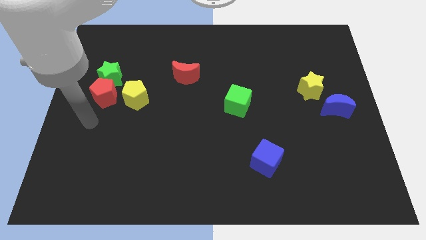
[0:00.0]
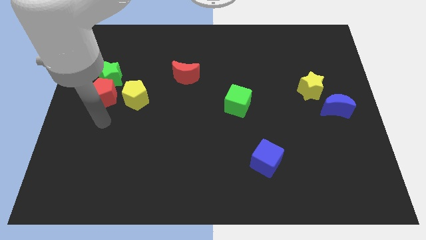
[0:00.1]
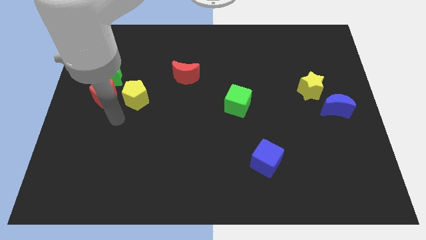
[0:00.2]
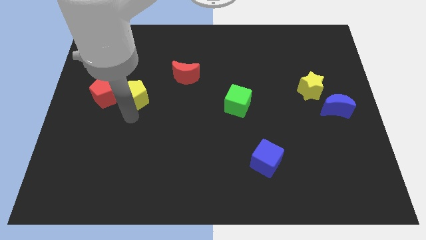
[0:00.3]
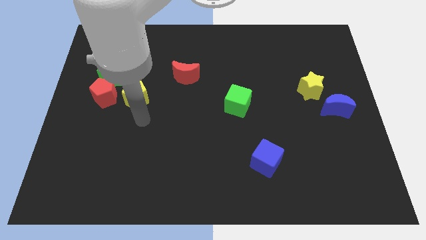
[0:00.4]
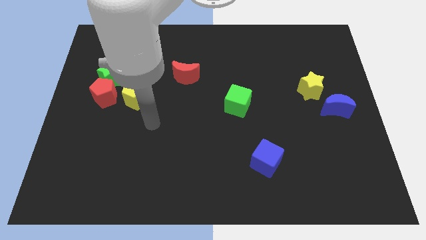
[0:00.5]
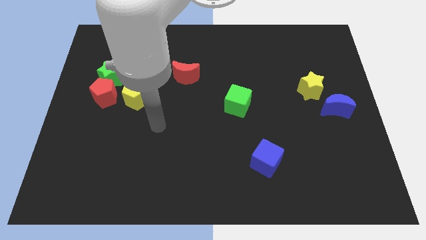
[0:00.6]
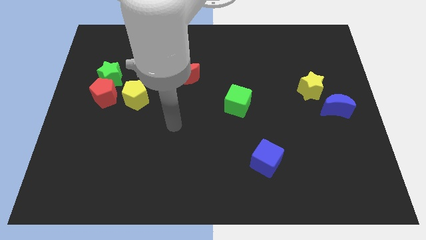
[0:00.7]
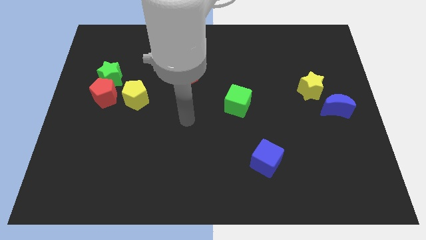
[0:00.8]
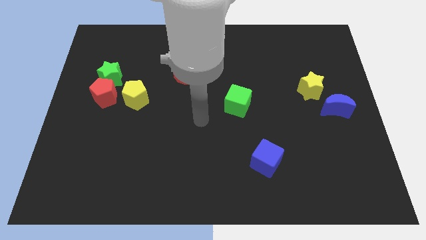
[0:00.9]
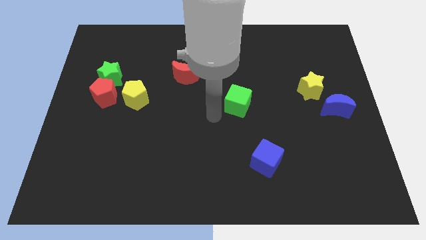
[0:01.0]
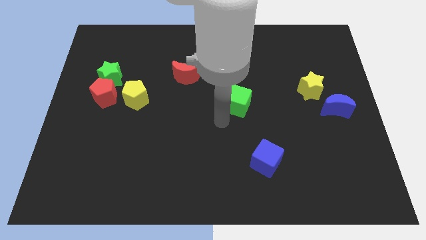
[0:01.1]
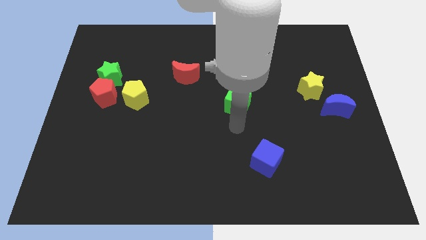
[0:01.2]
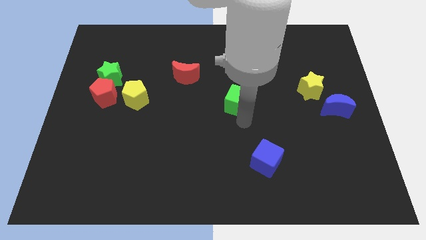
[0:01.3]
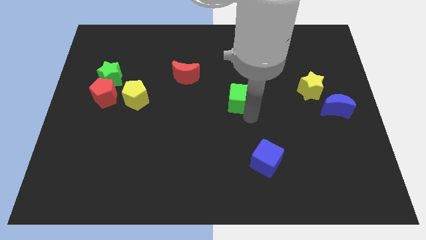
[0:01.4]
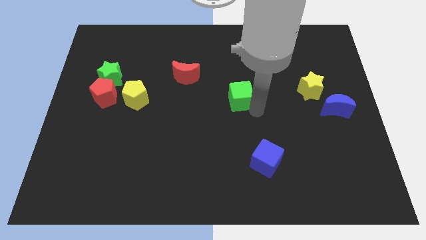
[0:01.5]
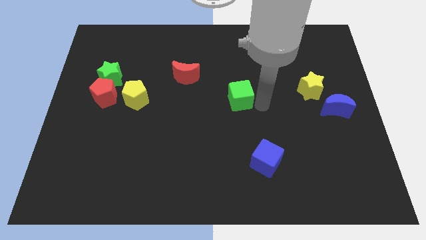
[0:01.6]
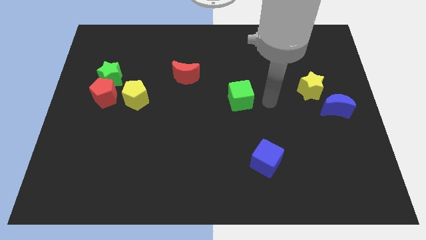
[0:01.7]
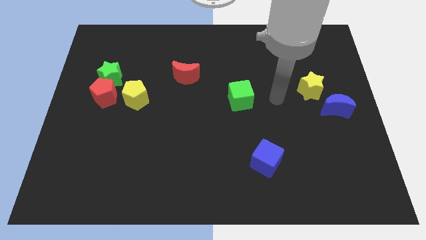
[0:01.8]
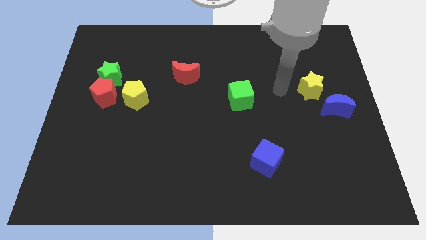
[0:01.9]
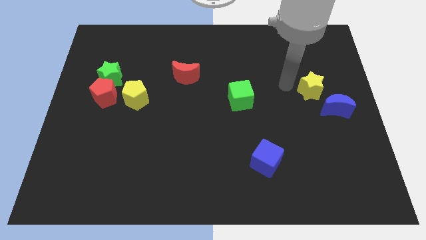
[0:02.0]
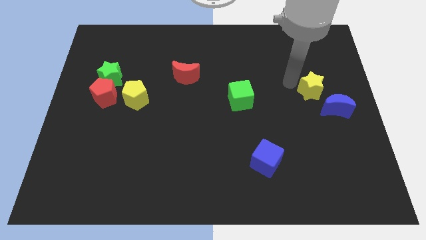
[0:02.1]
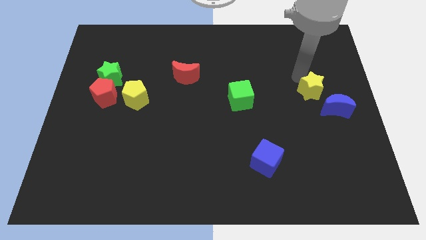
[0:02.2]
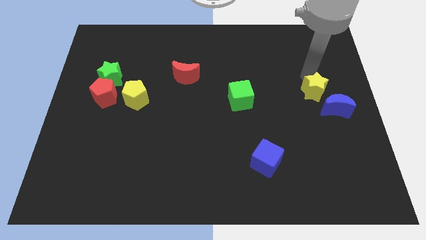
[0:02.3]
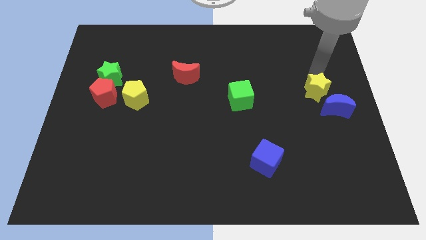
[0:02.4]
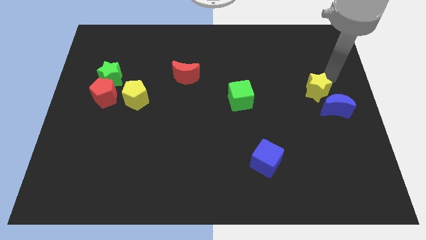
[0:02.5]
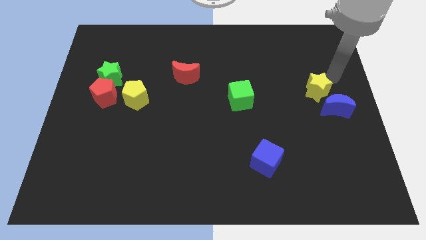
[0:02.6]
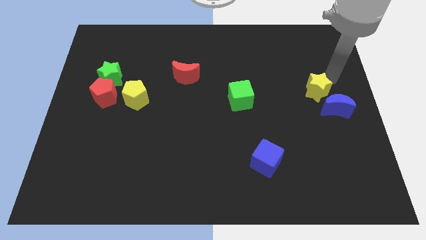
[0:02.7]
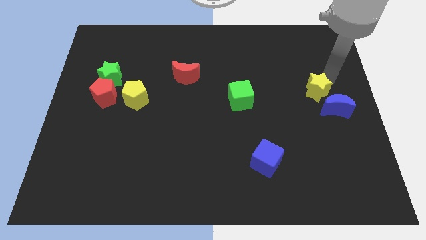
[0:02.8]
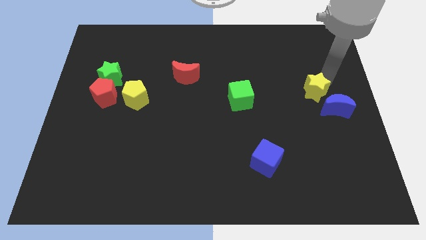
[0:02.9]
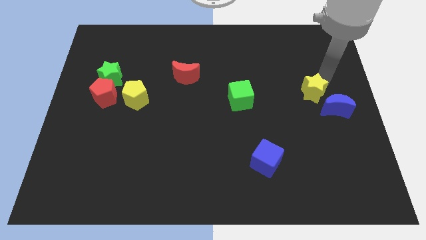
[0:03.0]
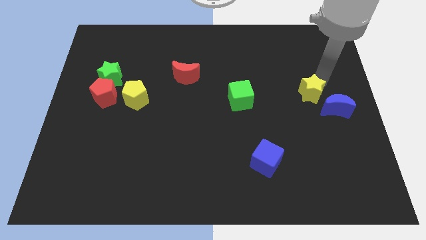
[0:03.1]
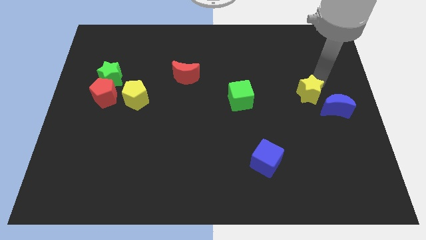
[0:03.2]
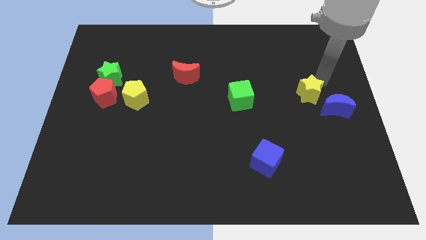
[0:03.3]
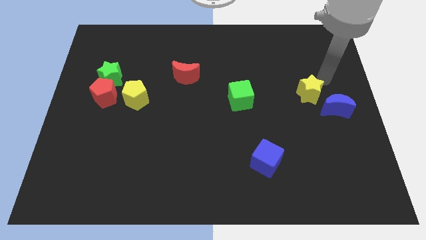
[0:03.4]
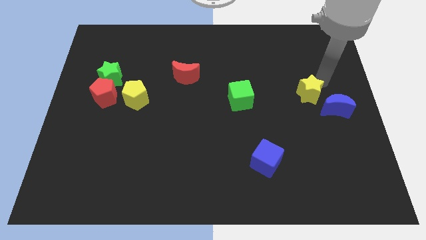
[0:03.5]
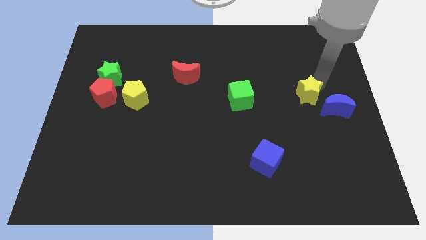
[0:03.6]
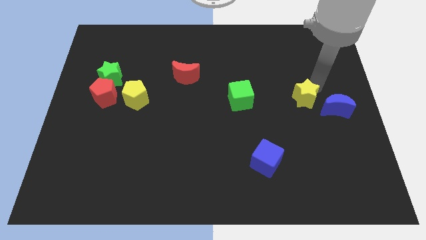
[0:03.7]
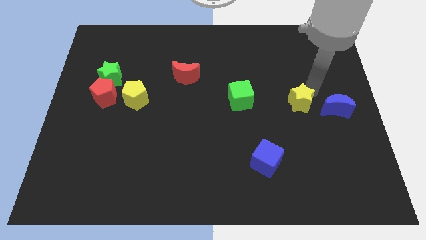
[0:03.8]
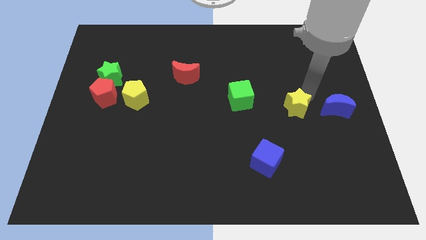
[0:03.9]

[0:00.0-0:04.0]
push the yellow star a little downwards and left

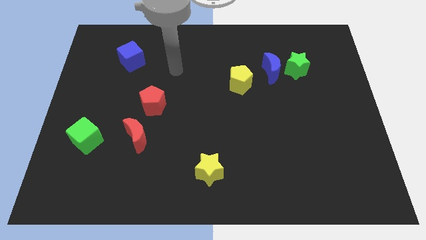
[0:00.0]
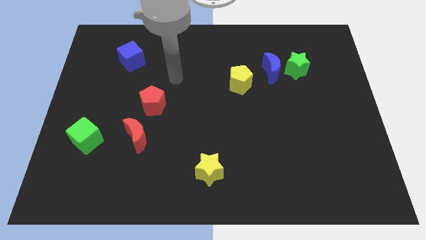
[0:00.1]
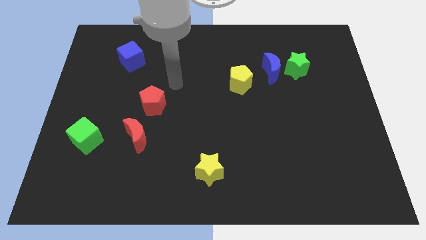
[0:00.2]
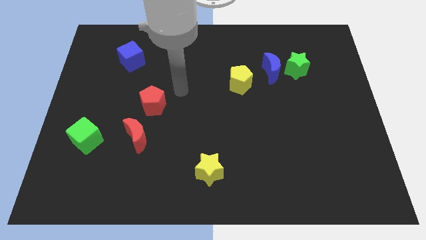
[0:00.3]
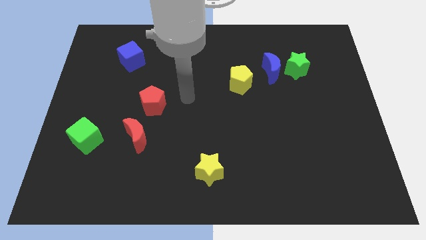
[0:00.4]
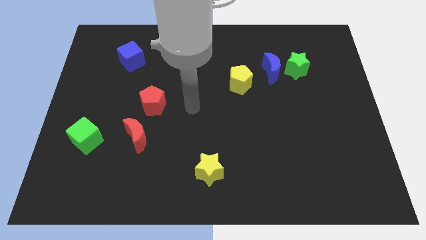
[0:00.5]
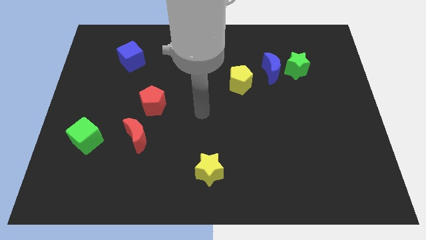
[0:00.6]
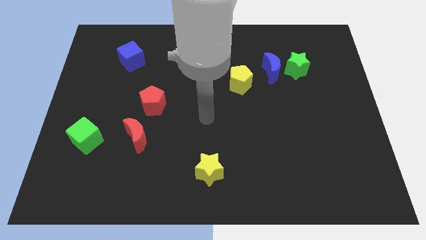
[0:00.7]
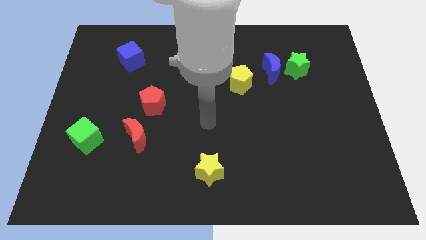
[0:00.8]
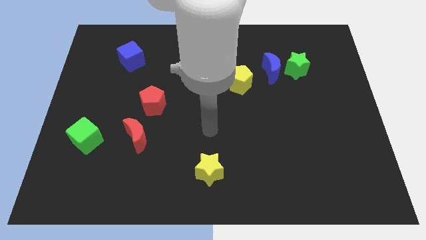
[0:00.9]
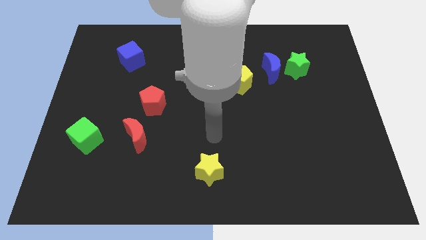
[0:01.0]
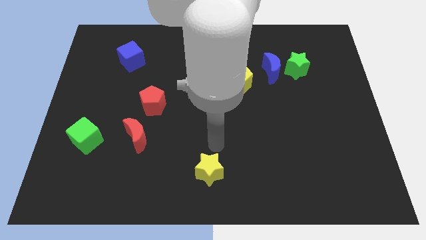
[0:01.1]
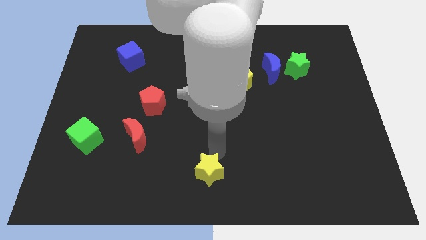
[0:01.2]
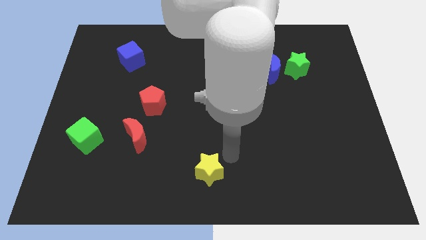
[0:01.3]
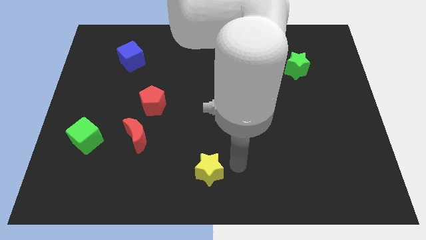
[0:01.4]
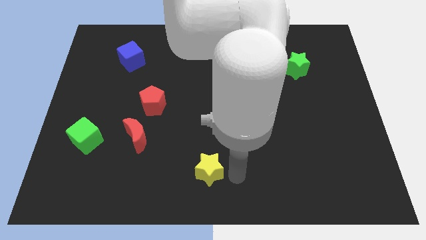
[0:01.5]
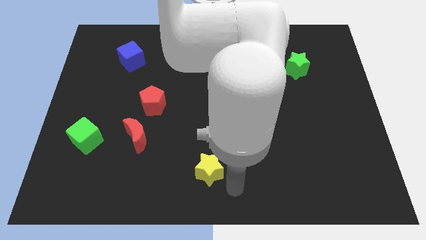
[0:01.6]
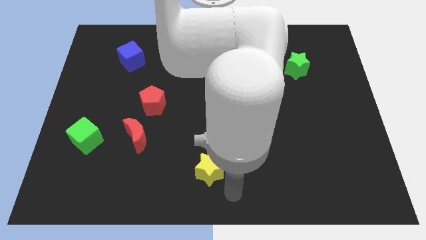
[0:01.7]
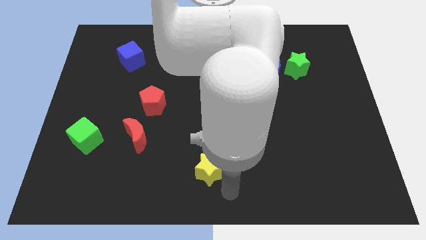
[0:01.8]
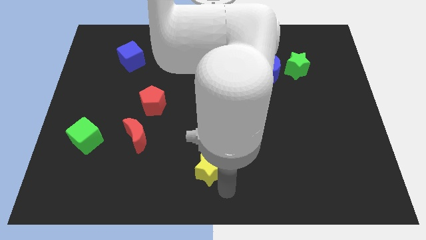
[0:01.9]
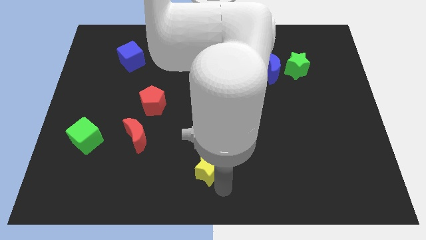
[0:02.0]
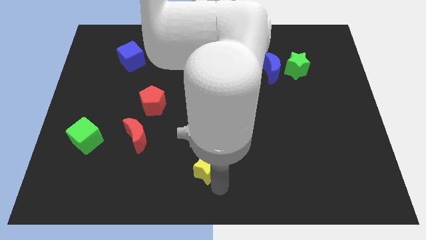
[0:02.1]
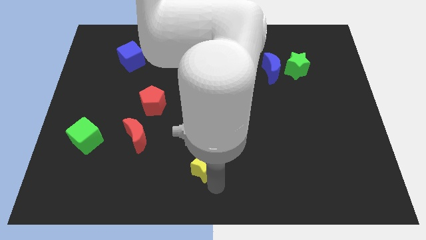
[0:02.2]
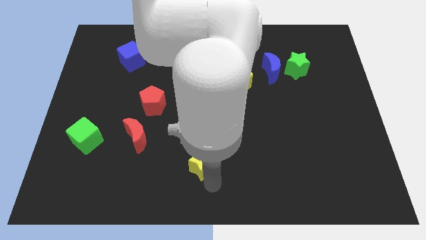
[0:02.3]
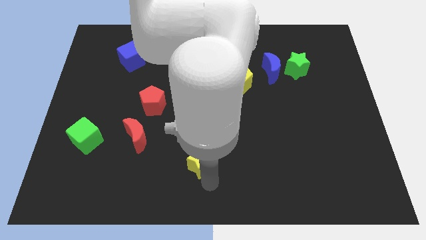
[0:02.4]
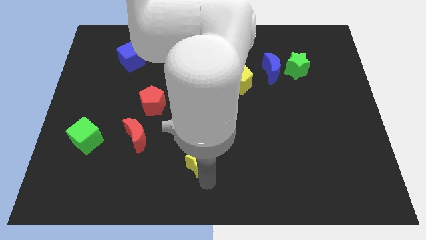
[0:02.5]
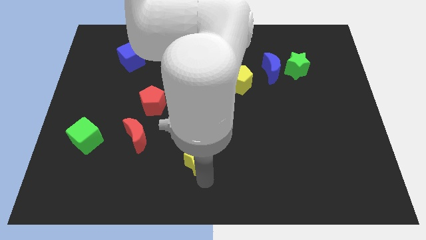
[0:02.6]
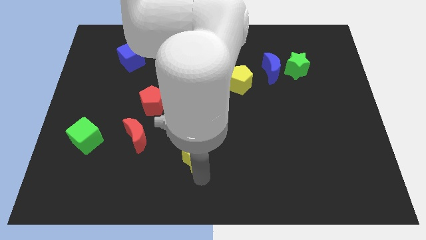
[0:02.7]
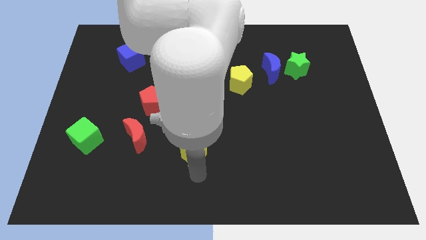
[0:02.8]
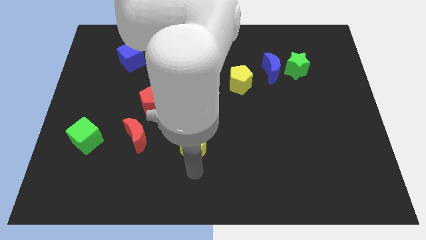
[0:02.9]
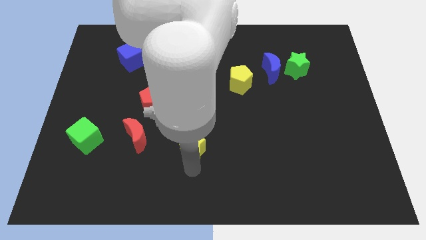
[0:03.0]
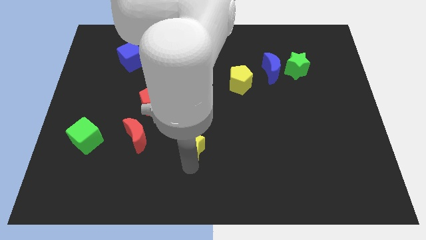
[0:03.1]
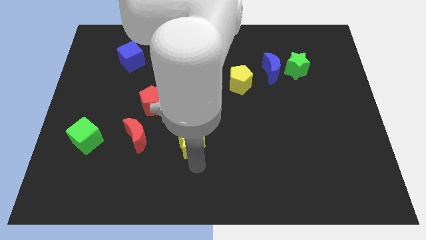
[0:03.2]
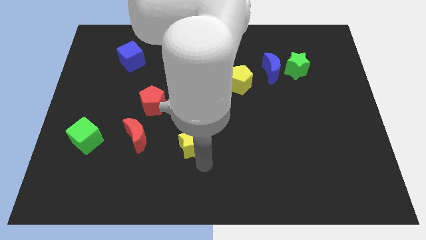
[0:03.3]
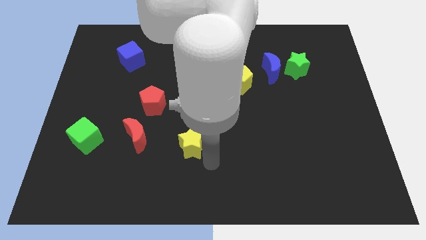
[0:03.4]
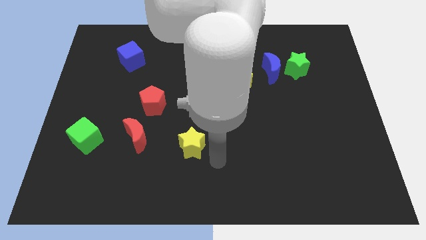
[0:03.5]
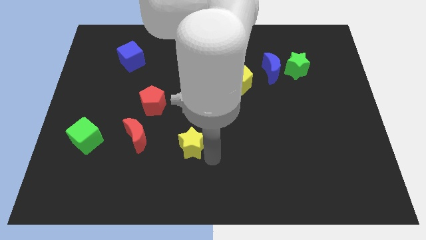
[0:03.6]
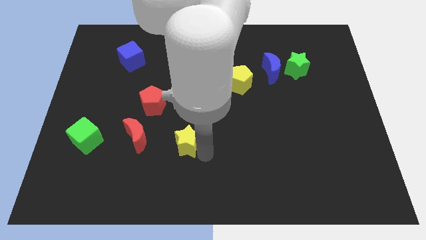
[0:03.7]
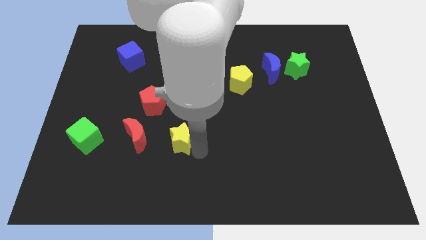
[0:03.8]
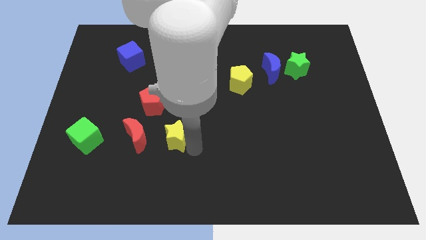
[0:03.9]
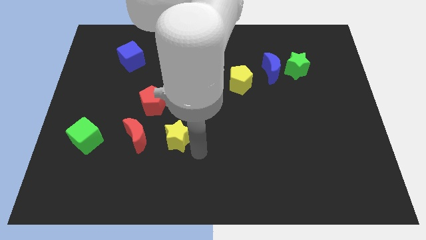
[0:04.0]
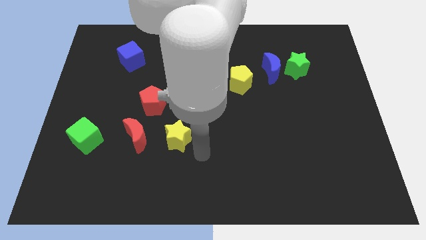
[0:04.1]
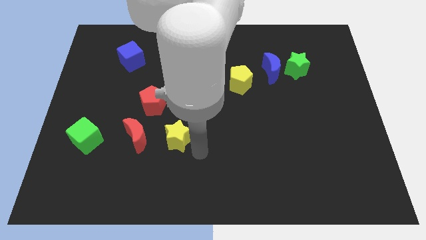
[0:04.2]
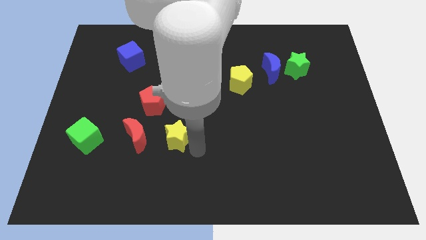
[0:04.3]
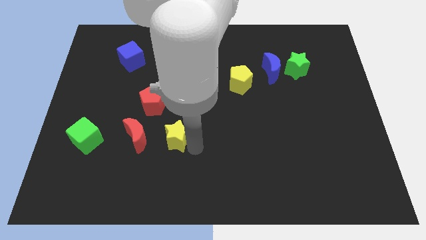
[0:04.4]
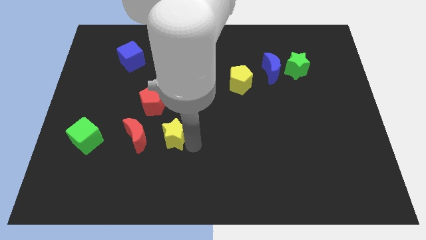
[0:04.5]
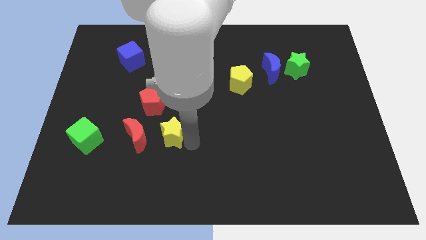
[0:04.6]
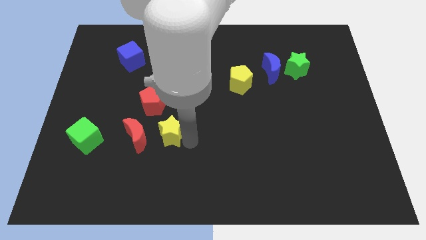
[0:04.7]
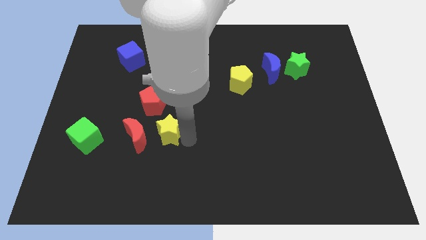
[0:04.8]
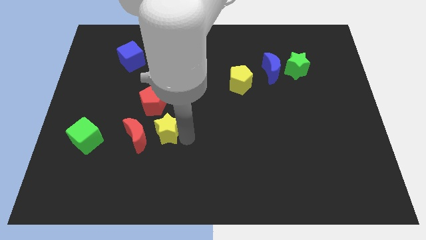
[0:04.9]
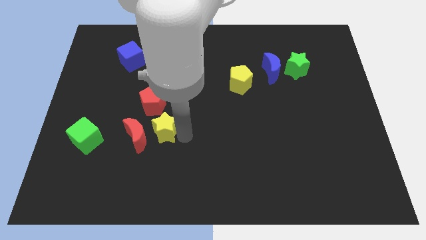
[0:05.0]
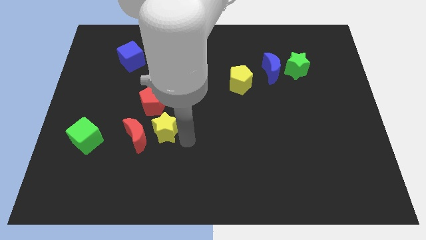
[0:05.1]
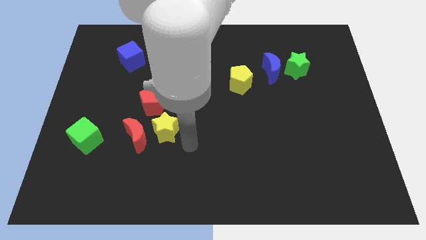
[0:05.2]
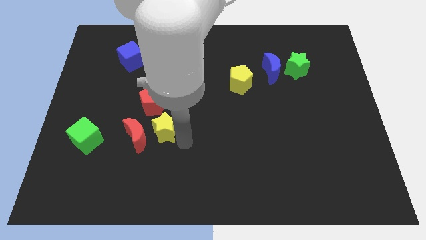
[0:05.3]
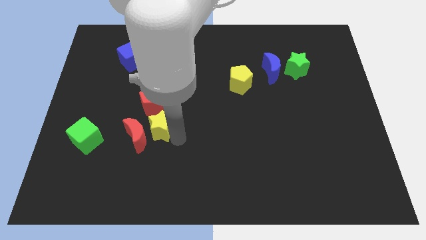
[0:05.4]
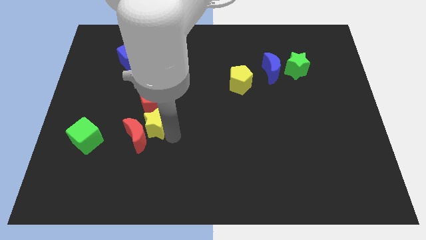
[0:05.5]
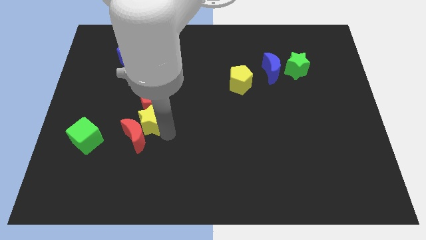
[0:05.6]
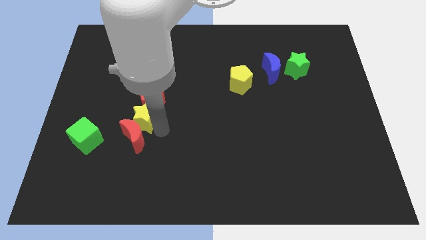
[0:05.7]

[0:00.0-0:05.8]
move the yellow star upwards and to the left diagonally
